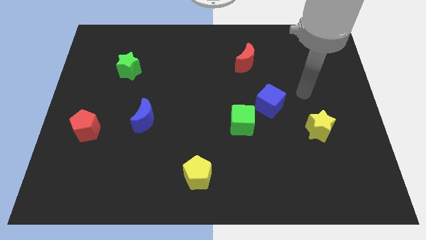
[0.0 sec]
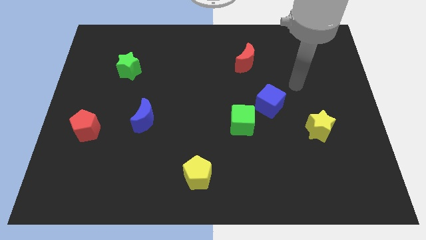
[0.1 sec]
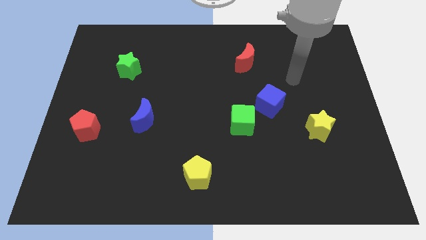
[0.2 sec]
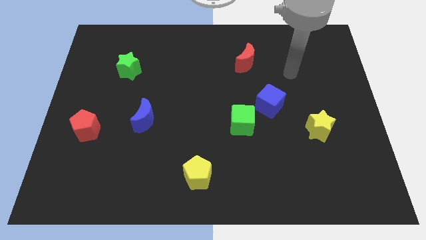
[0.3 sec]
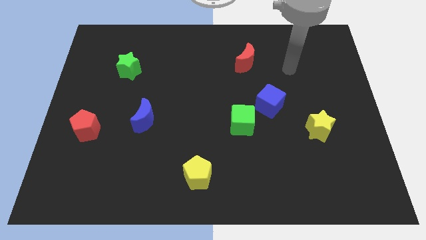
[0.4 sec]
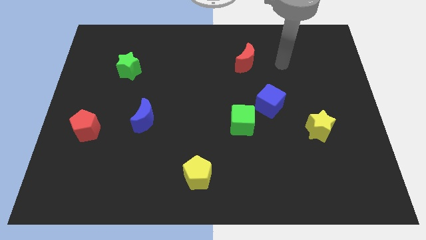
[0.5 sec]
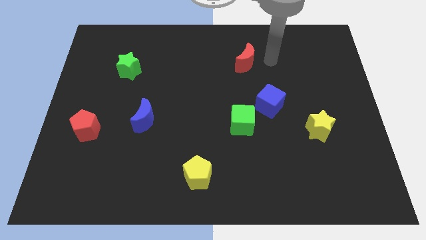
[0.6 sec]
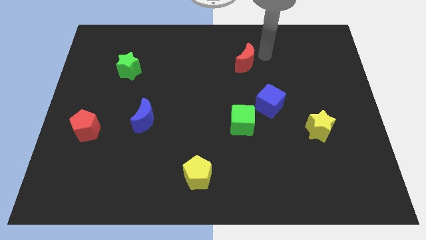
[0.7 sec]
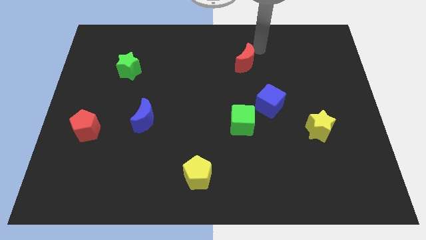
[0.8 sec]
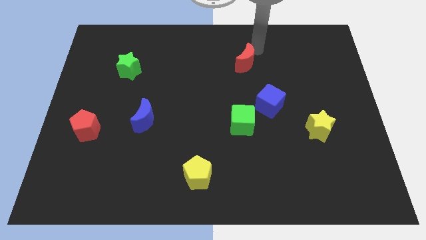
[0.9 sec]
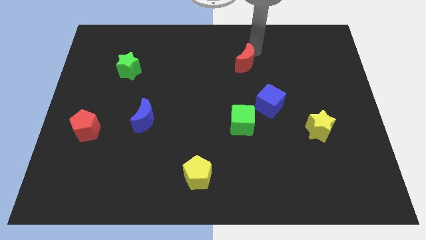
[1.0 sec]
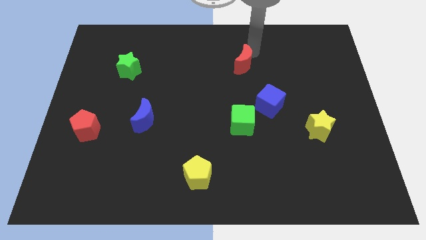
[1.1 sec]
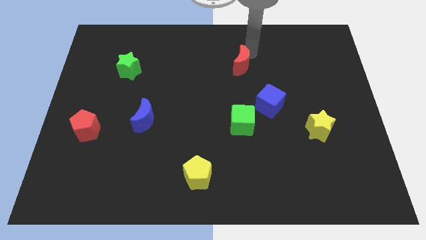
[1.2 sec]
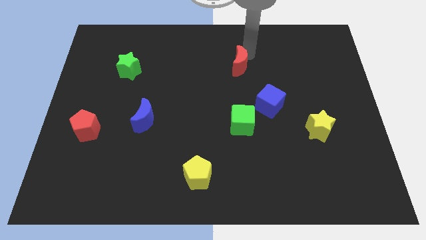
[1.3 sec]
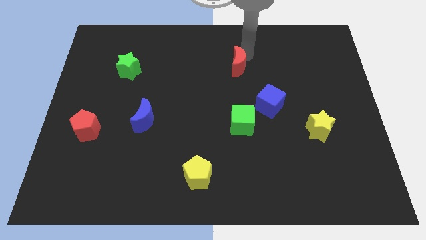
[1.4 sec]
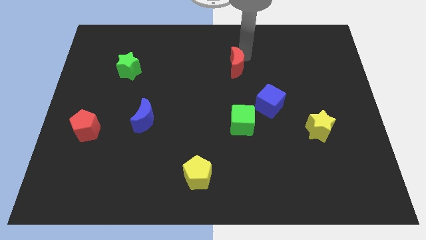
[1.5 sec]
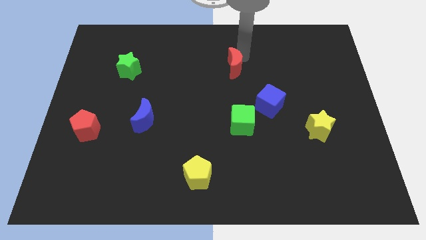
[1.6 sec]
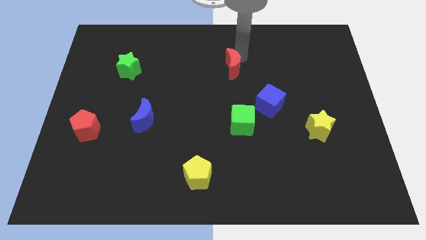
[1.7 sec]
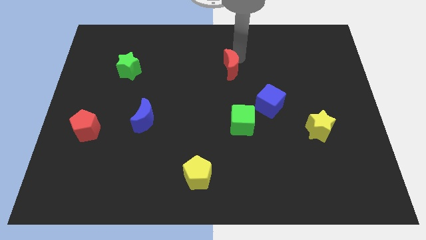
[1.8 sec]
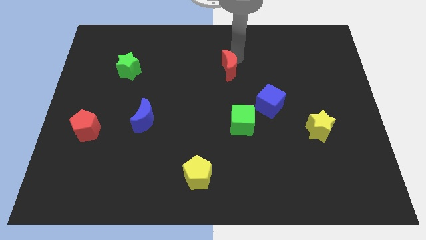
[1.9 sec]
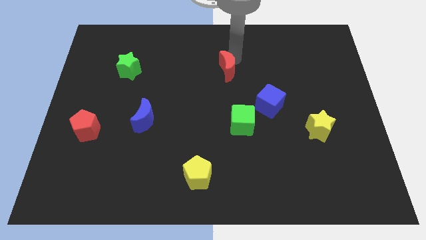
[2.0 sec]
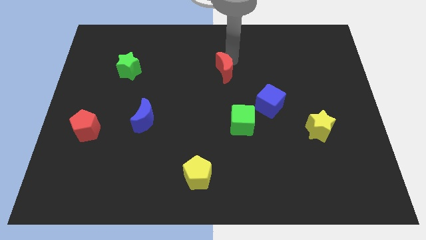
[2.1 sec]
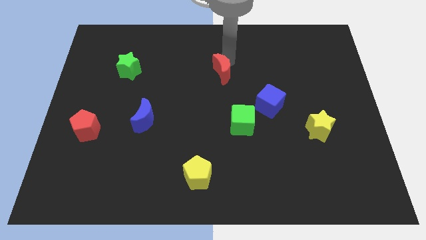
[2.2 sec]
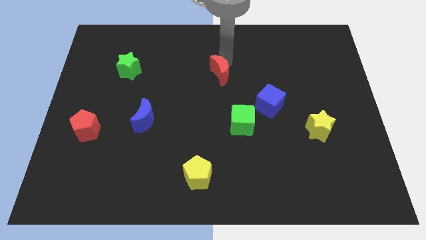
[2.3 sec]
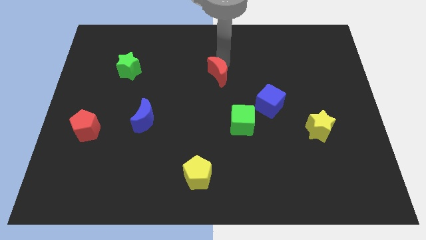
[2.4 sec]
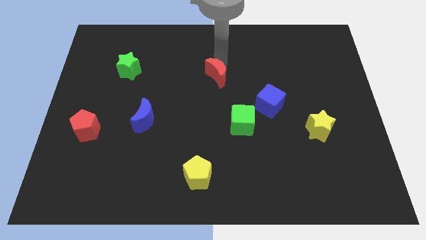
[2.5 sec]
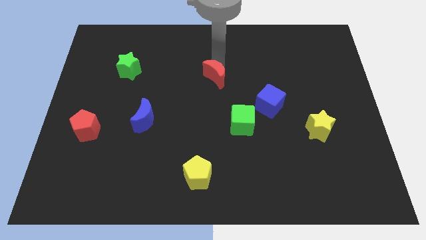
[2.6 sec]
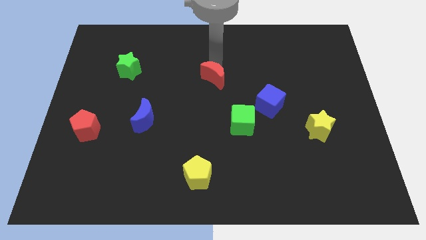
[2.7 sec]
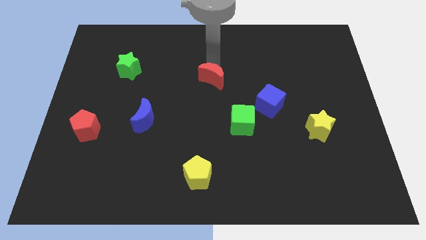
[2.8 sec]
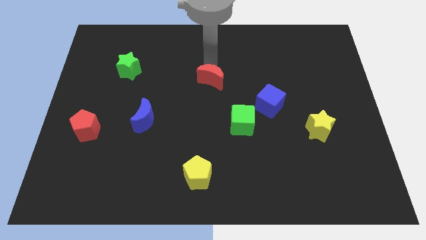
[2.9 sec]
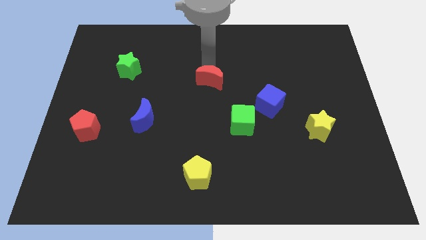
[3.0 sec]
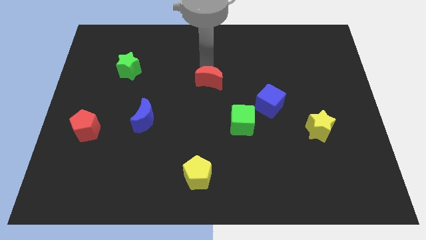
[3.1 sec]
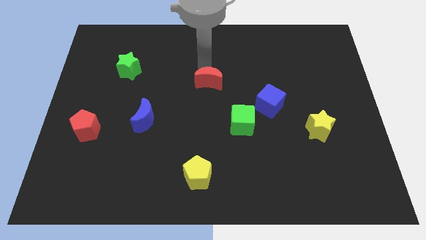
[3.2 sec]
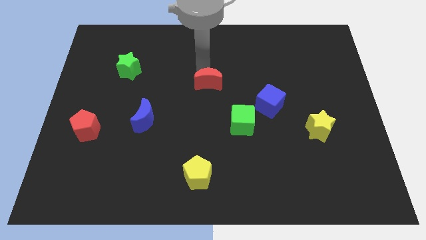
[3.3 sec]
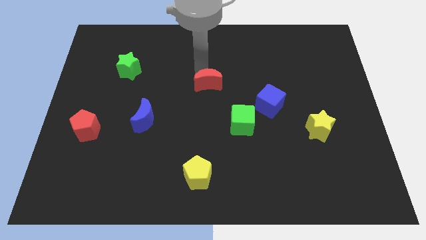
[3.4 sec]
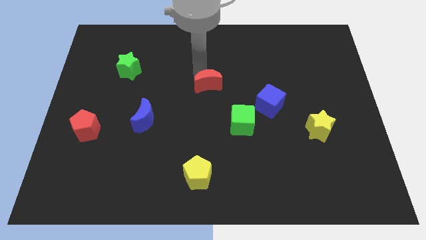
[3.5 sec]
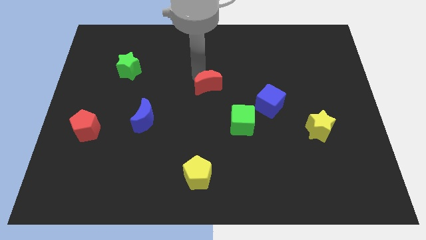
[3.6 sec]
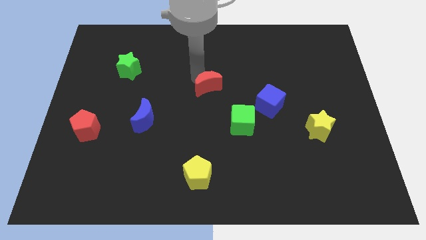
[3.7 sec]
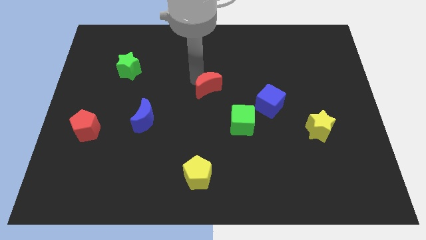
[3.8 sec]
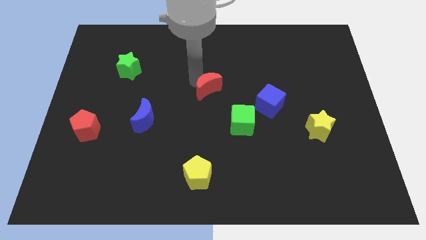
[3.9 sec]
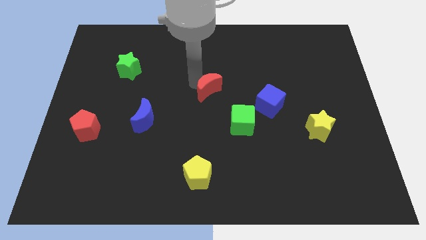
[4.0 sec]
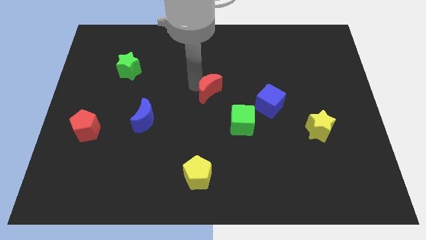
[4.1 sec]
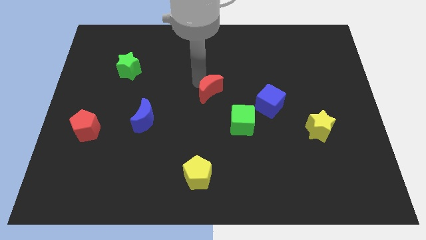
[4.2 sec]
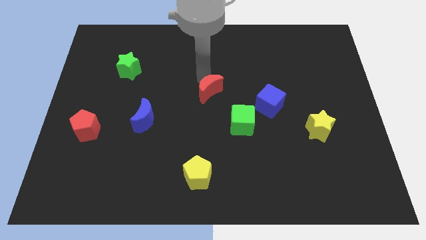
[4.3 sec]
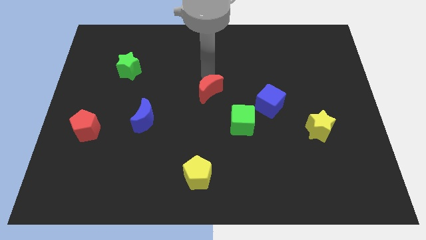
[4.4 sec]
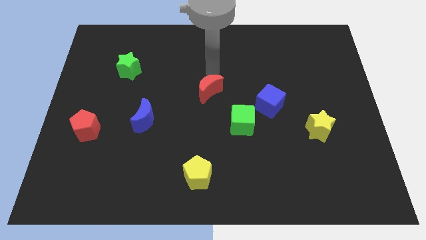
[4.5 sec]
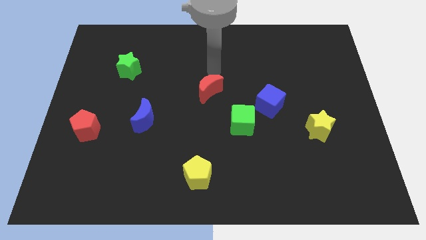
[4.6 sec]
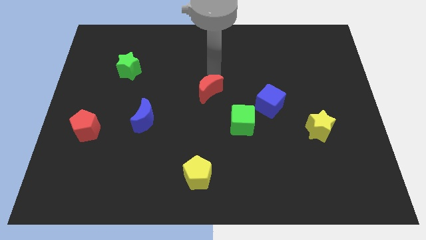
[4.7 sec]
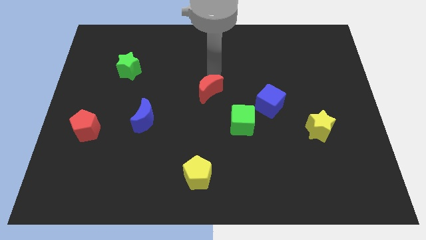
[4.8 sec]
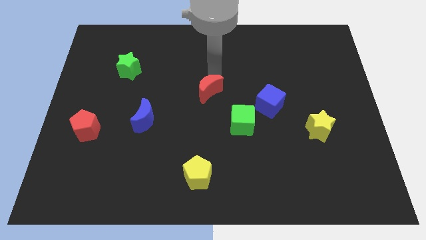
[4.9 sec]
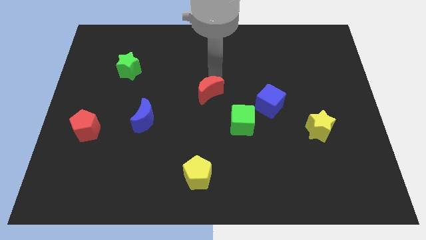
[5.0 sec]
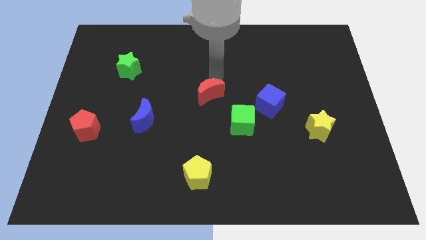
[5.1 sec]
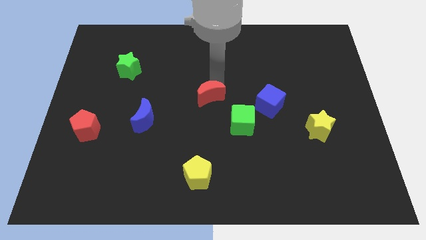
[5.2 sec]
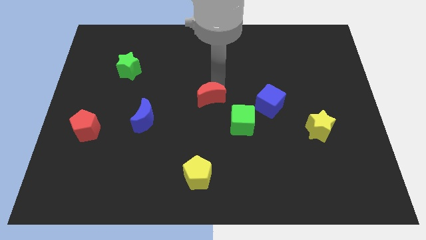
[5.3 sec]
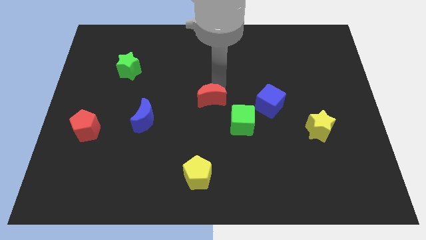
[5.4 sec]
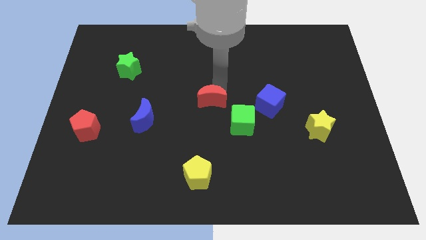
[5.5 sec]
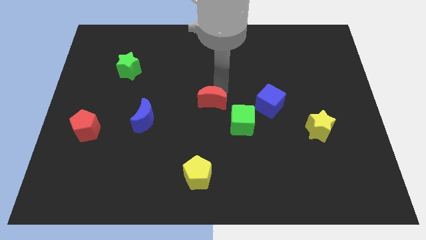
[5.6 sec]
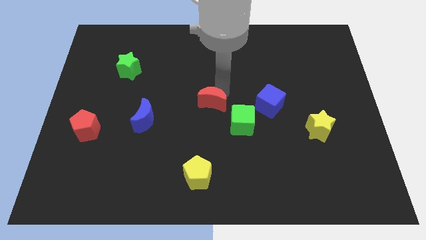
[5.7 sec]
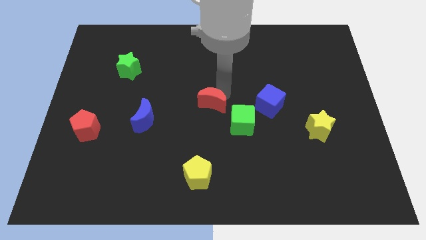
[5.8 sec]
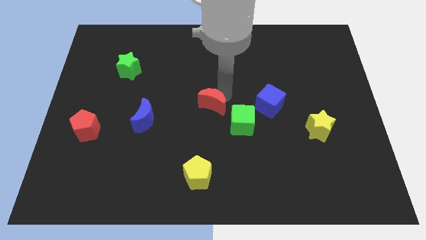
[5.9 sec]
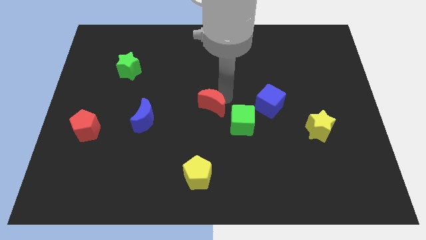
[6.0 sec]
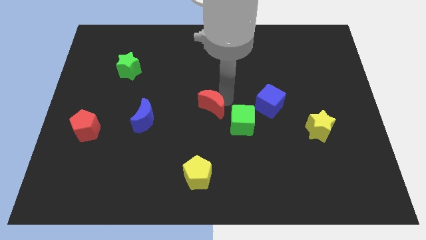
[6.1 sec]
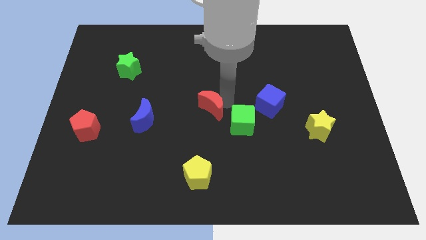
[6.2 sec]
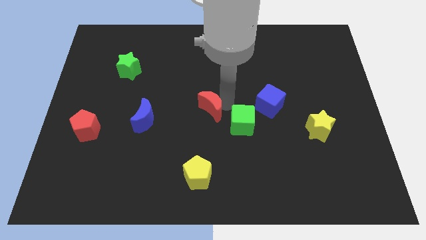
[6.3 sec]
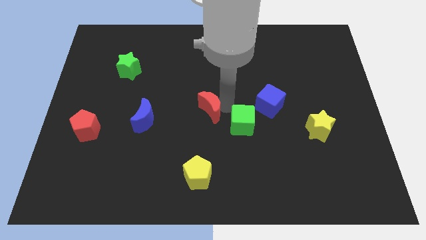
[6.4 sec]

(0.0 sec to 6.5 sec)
move the red moon just right of the blue moon
